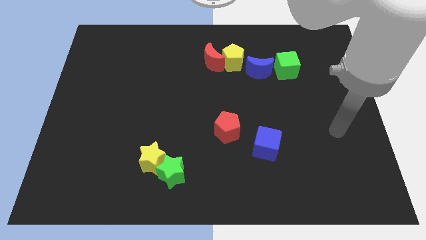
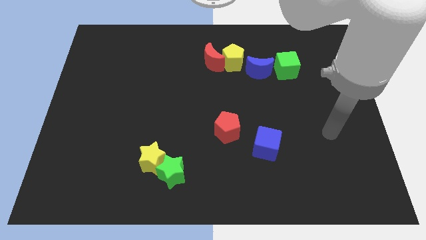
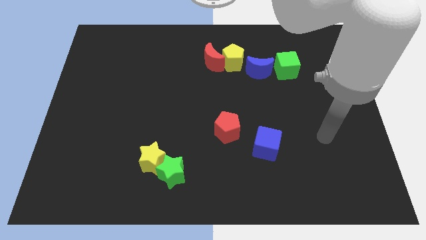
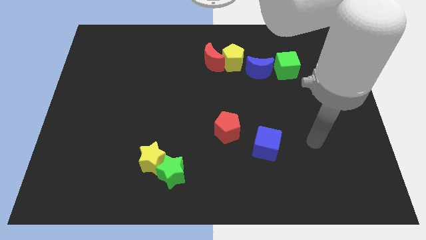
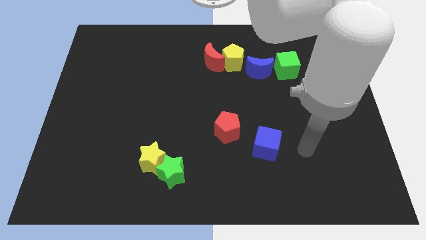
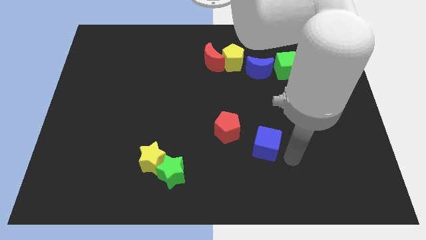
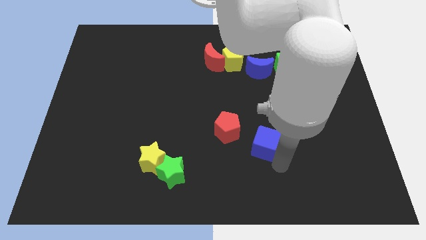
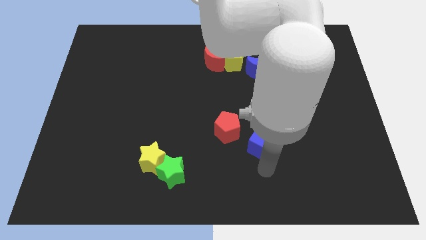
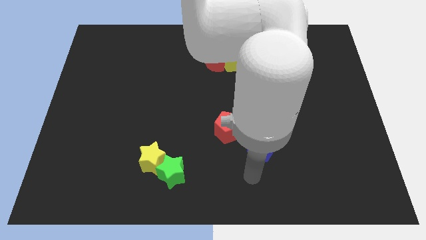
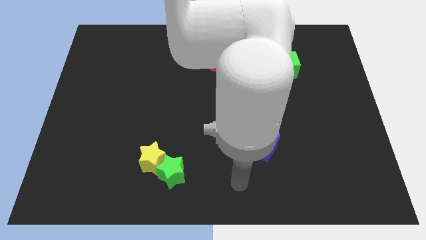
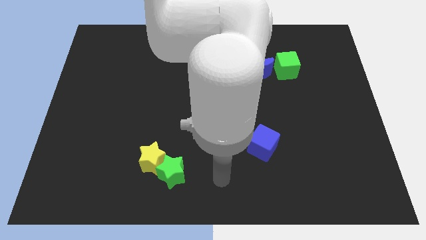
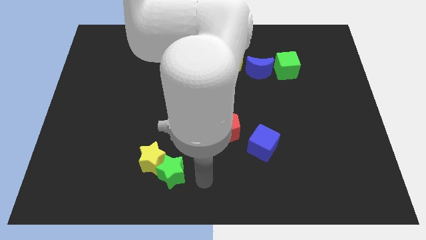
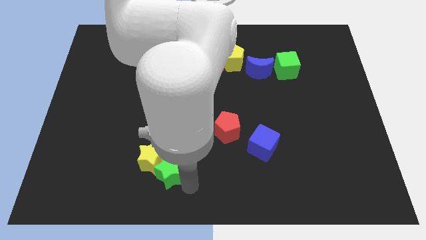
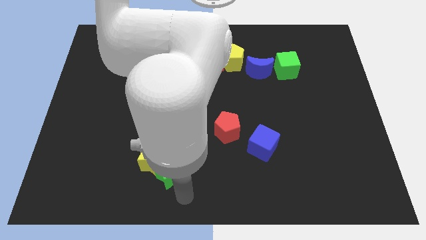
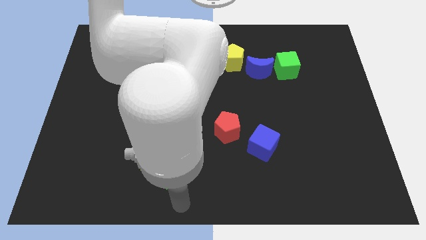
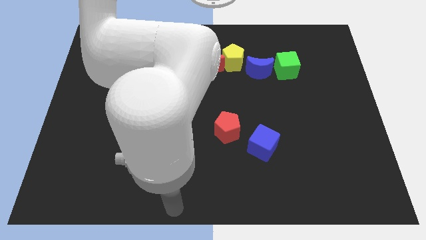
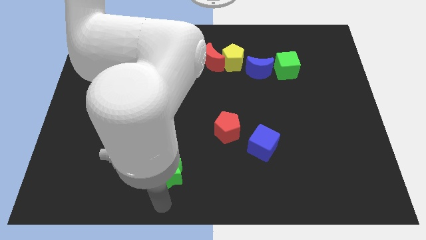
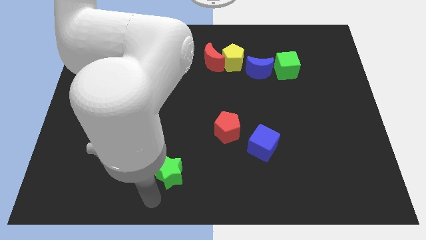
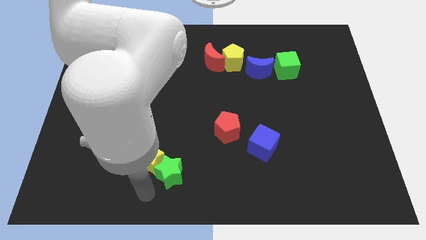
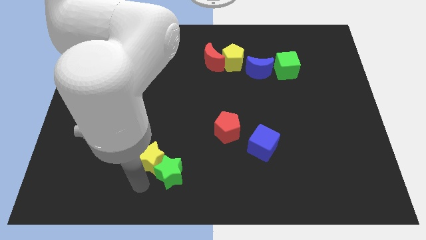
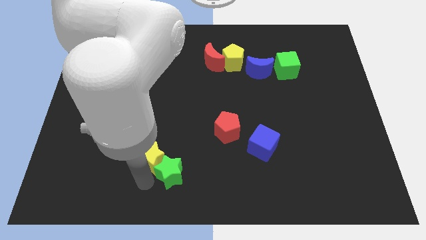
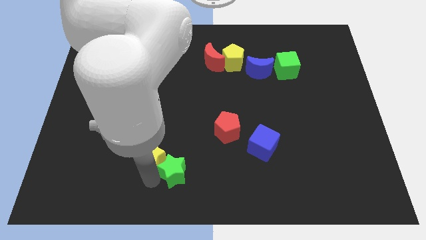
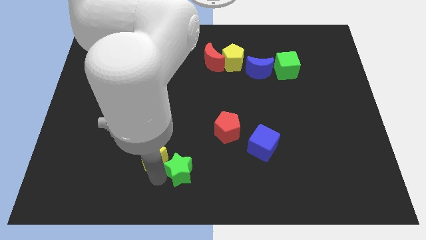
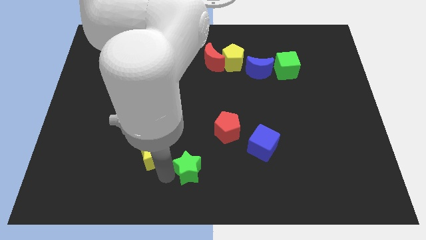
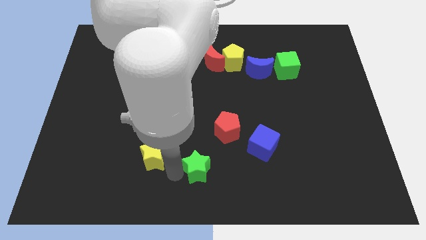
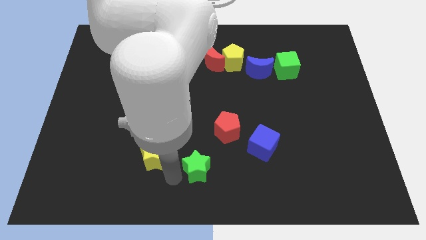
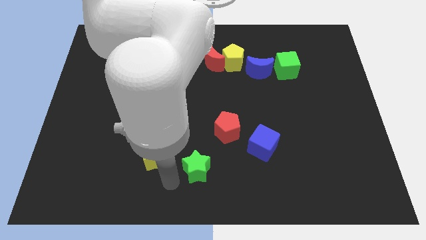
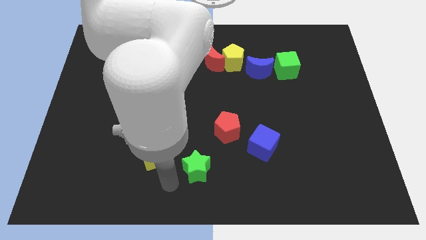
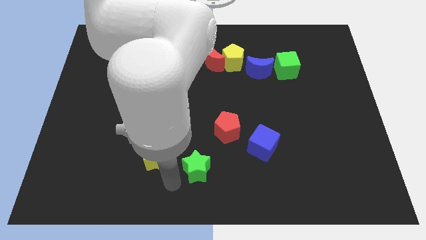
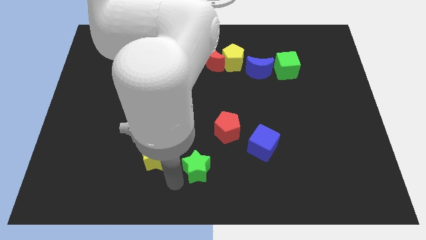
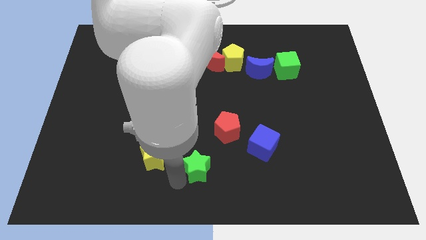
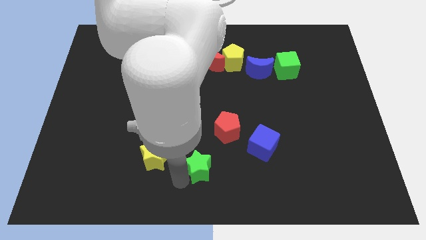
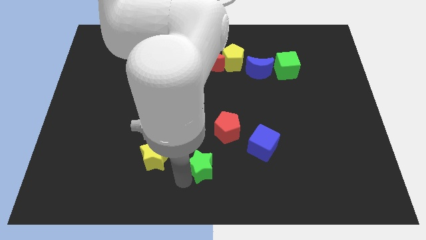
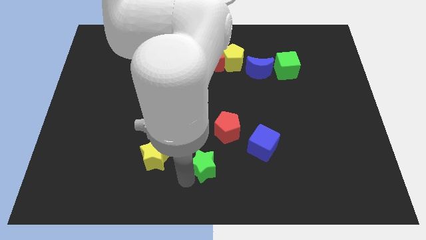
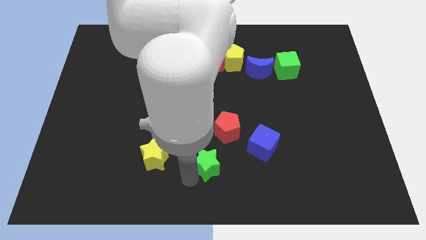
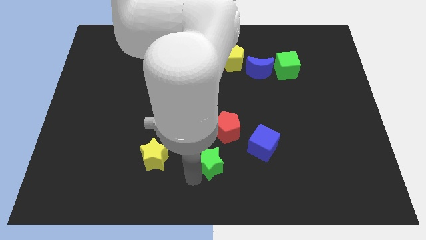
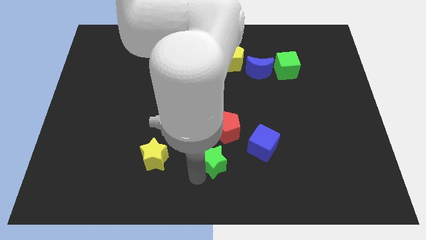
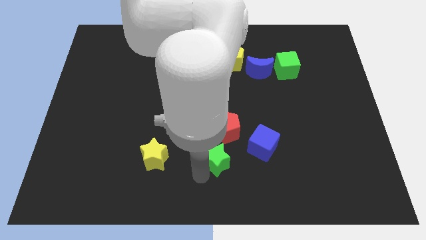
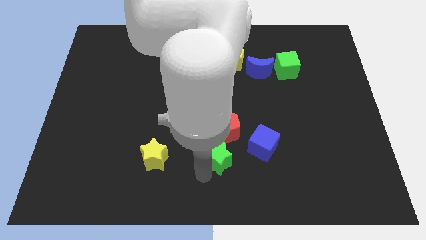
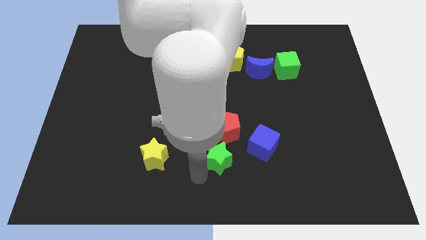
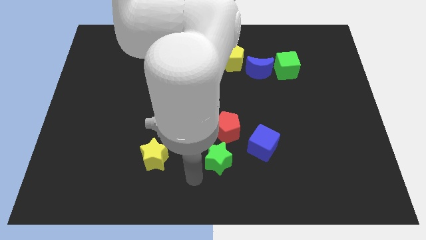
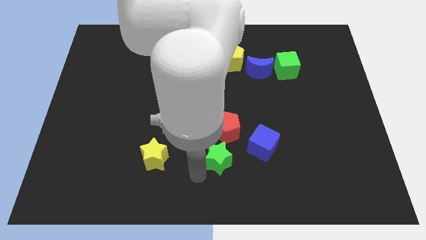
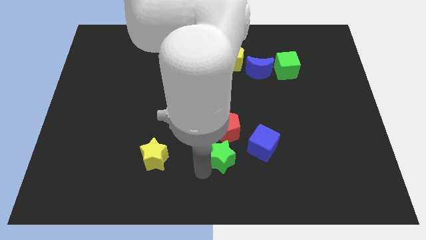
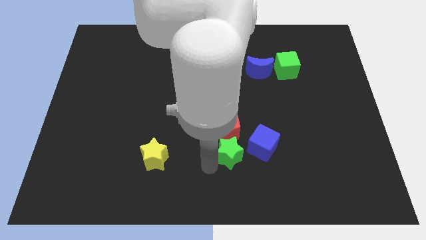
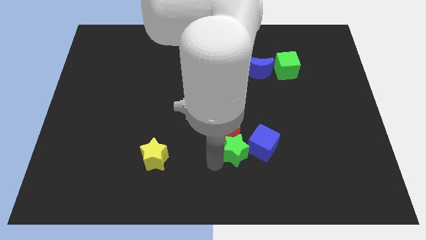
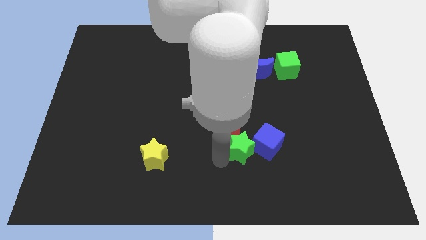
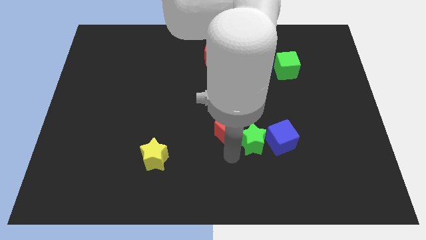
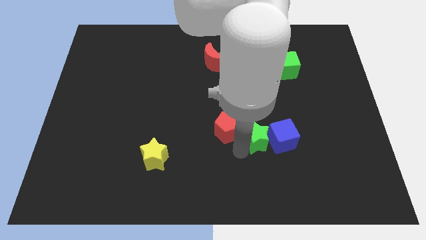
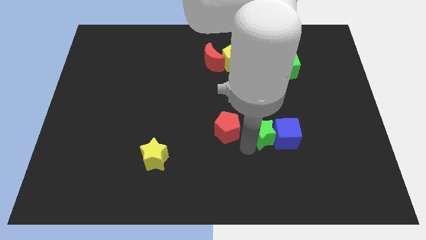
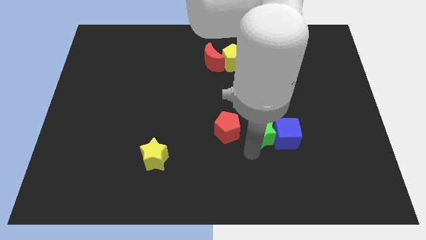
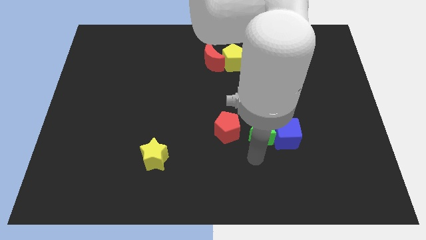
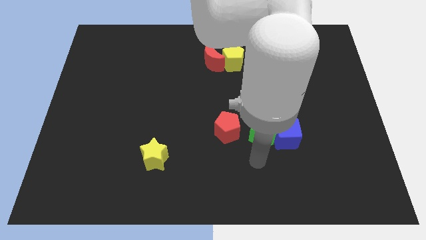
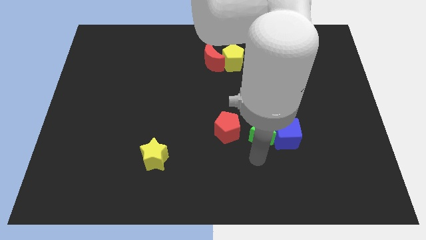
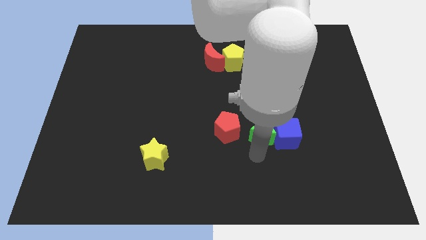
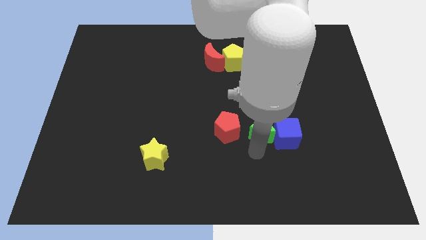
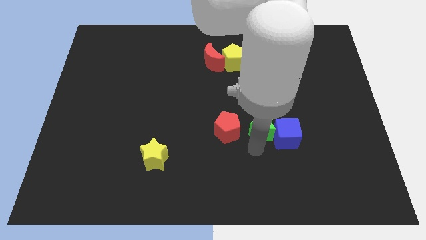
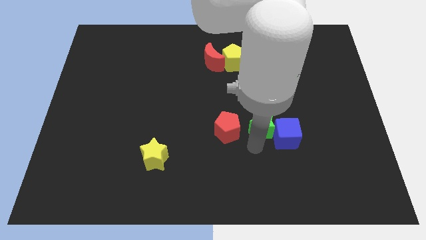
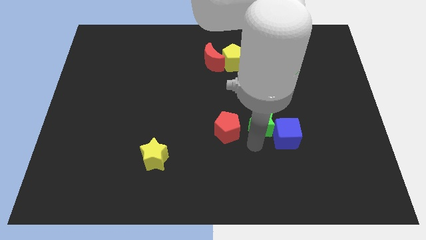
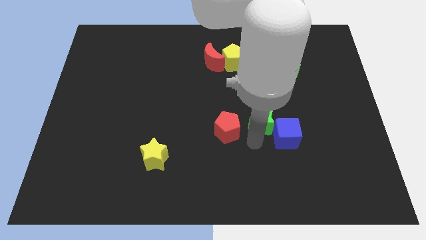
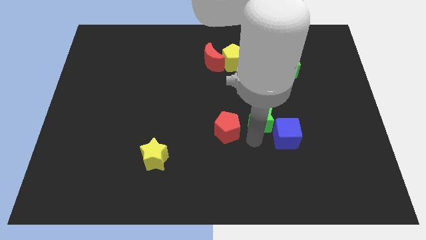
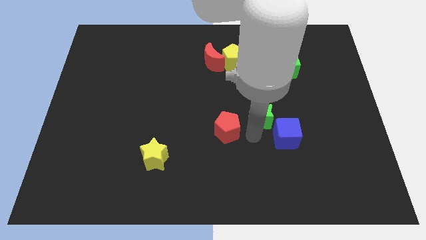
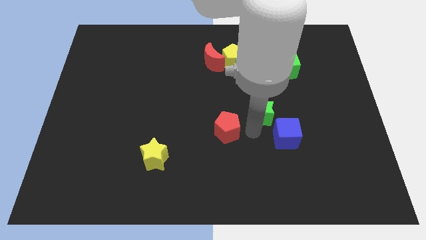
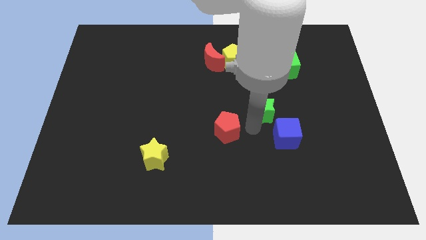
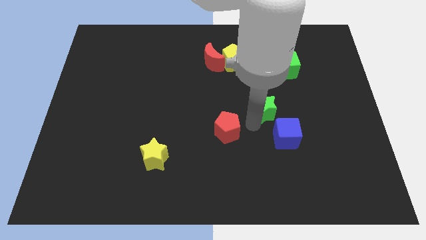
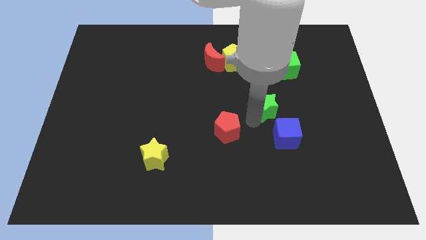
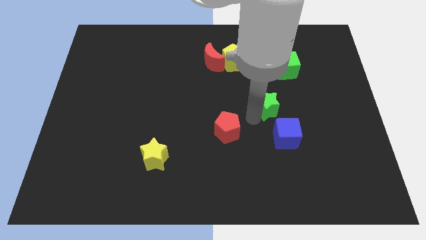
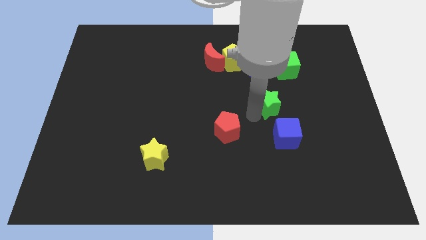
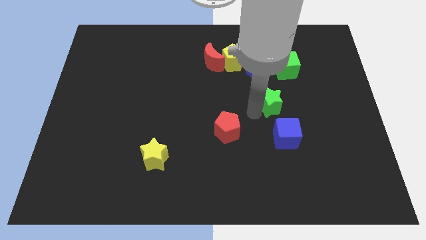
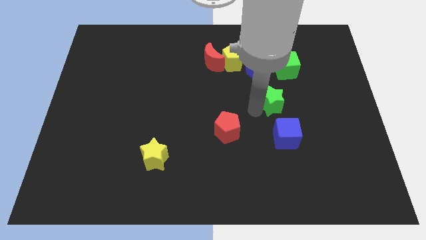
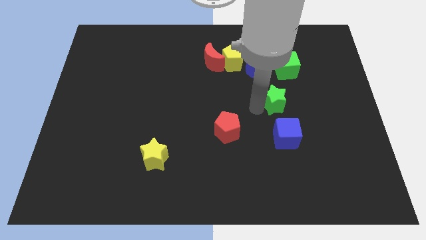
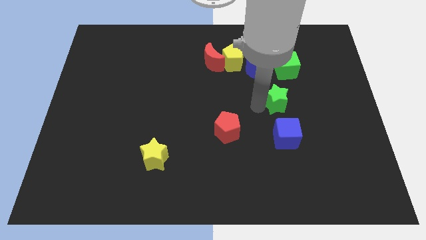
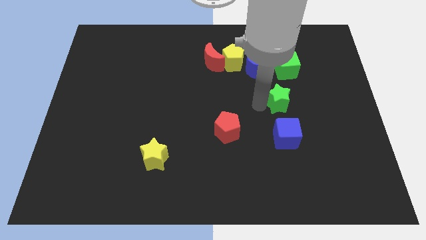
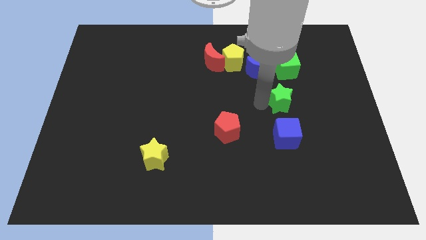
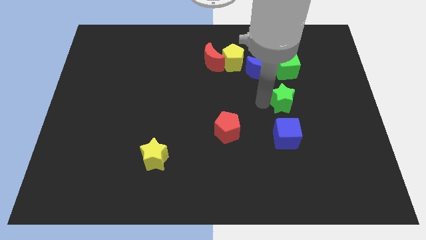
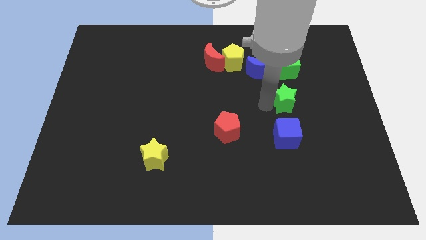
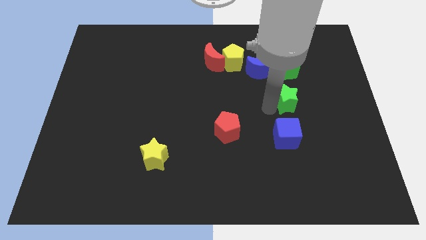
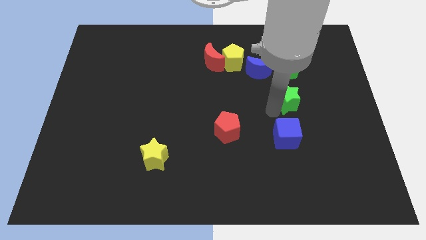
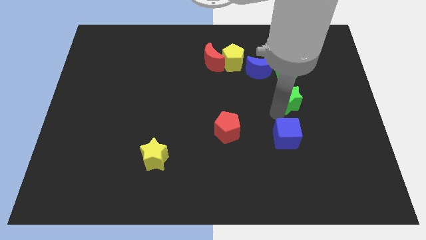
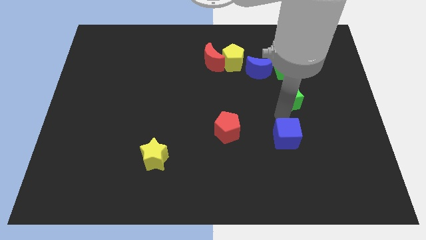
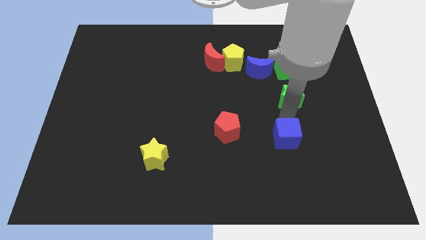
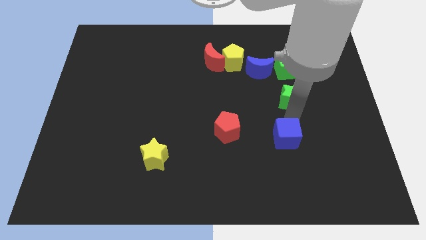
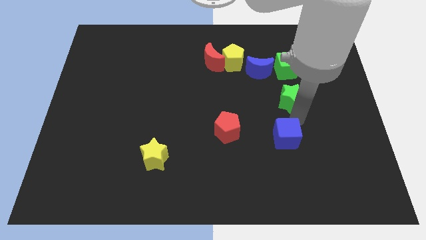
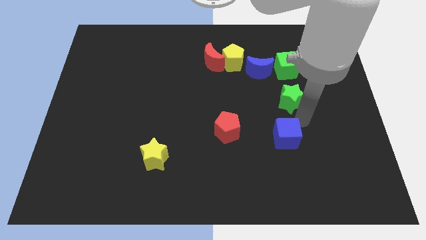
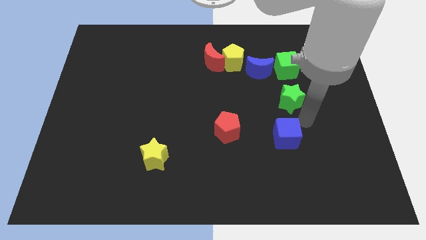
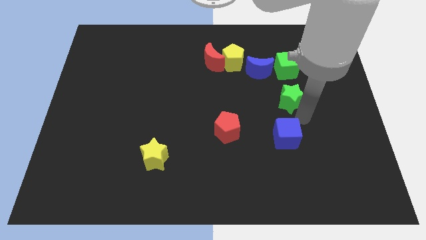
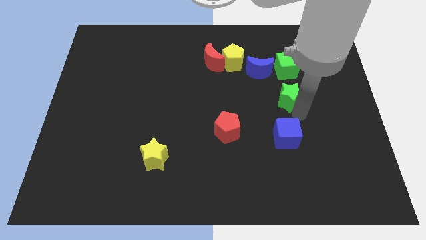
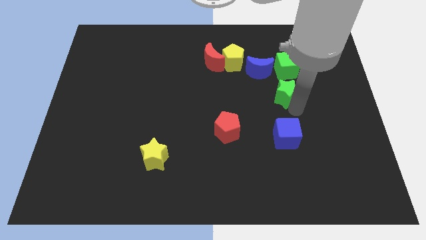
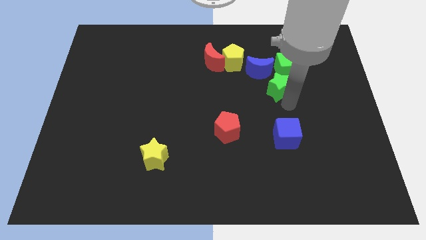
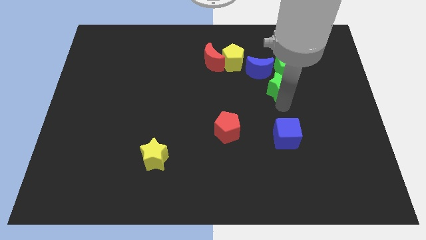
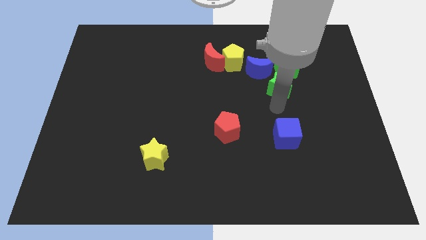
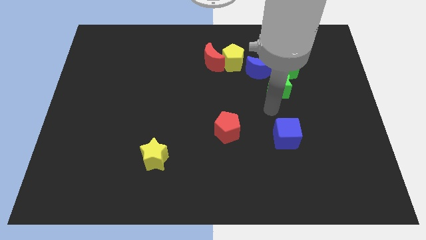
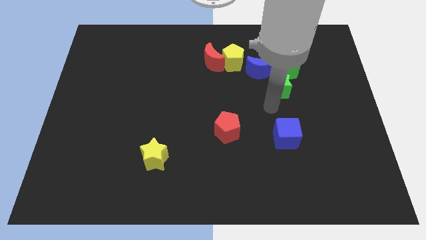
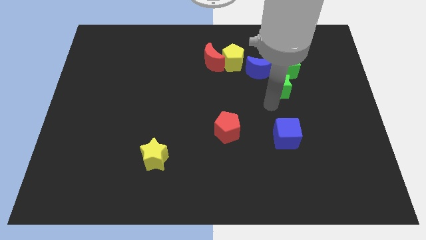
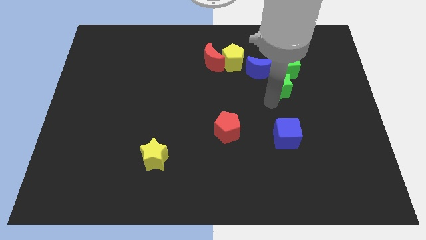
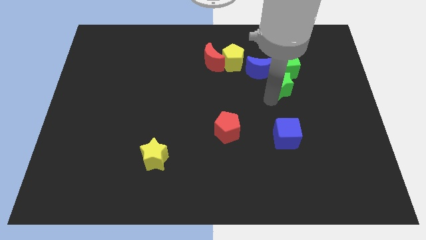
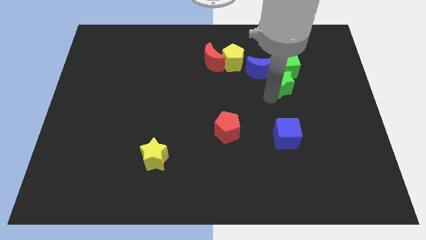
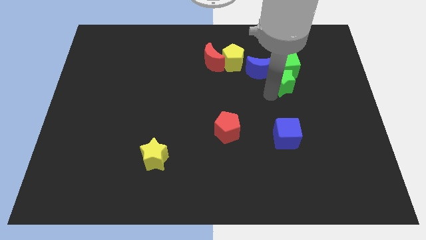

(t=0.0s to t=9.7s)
put the green star close to the green cube
